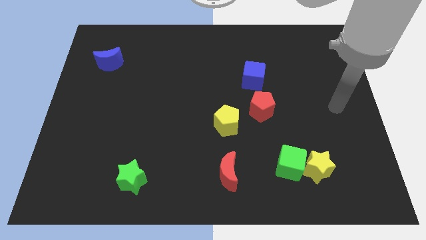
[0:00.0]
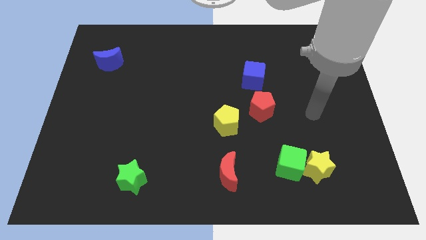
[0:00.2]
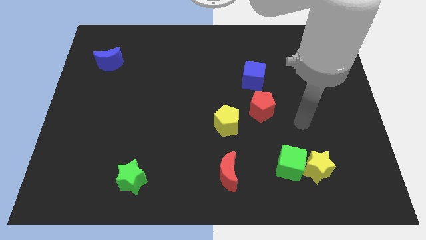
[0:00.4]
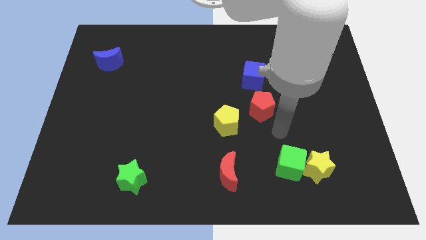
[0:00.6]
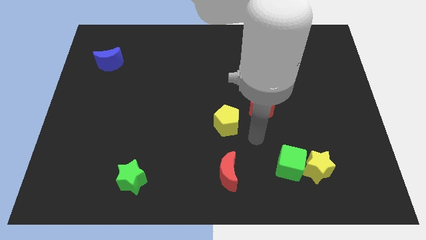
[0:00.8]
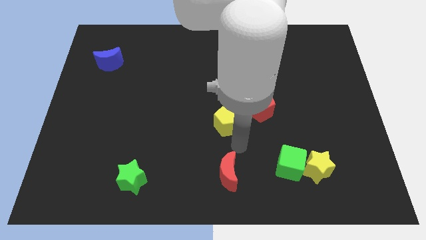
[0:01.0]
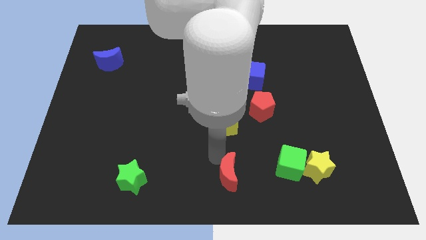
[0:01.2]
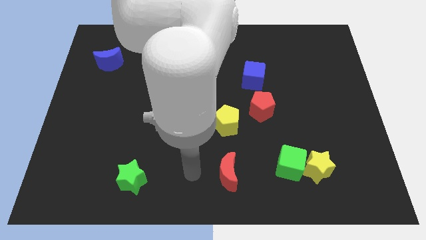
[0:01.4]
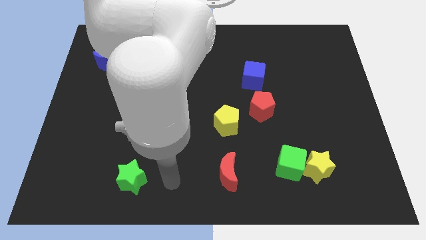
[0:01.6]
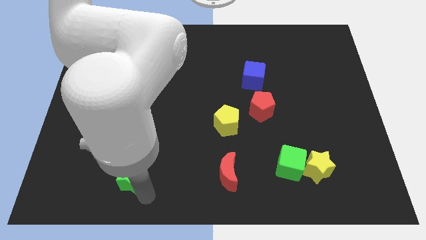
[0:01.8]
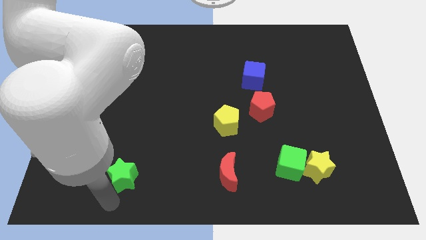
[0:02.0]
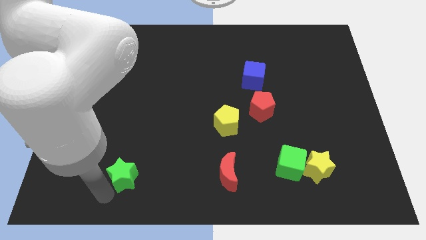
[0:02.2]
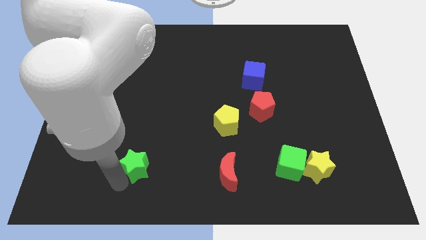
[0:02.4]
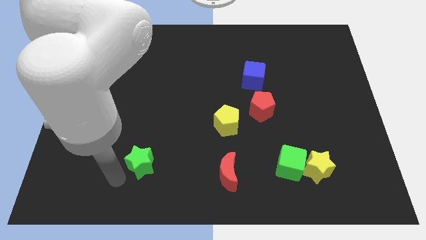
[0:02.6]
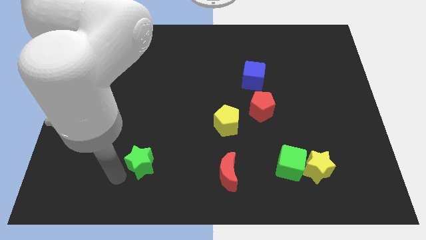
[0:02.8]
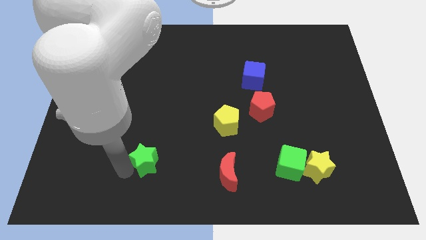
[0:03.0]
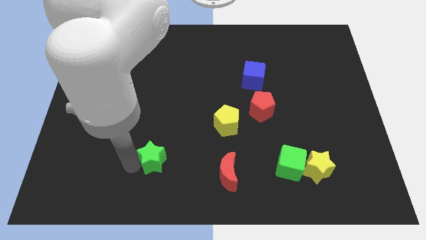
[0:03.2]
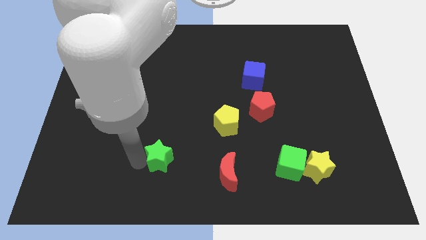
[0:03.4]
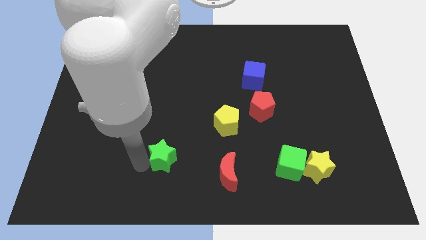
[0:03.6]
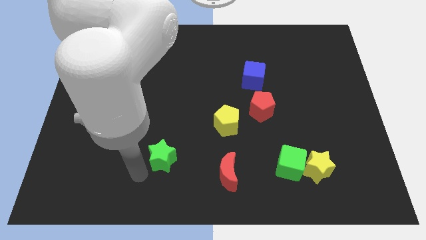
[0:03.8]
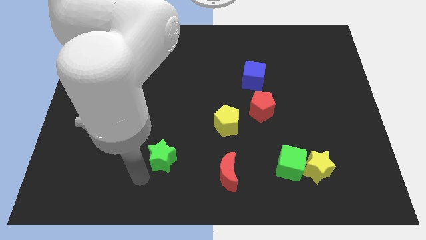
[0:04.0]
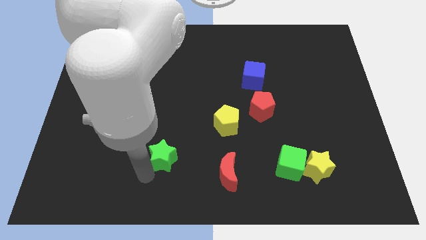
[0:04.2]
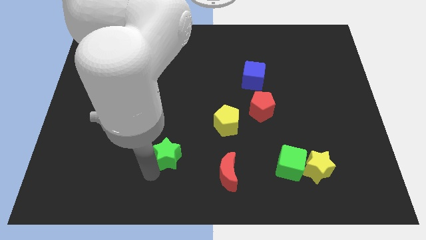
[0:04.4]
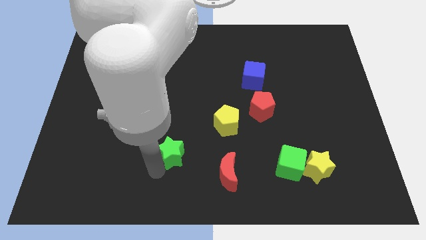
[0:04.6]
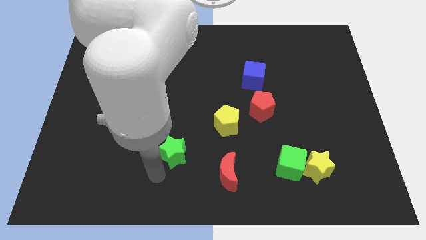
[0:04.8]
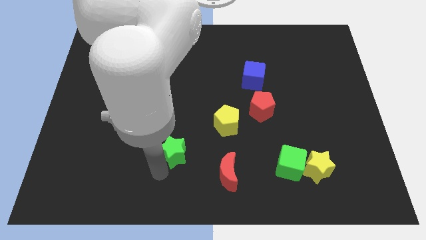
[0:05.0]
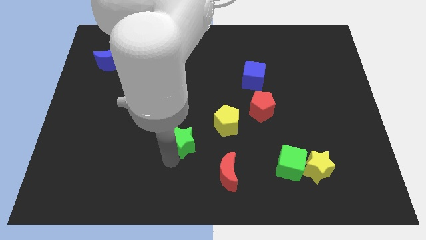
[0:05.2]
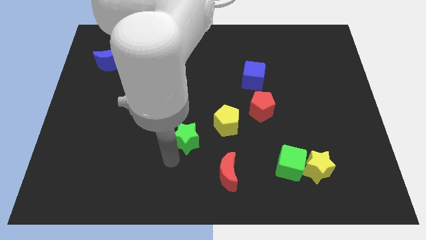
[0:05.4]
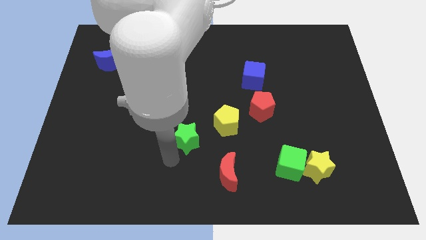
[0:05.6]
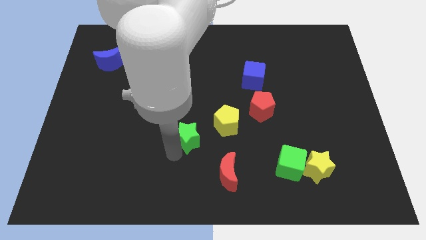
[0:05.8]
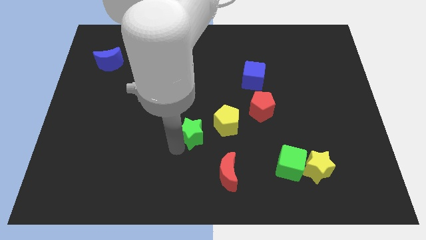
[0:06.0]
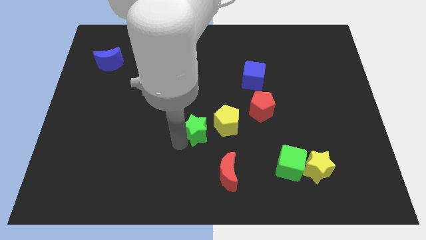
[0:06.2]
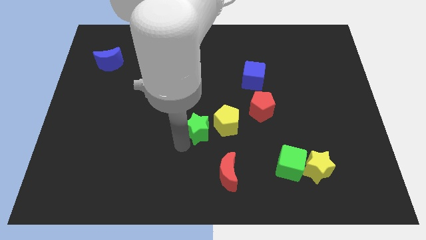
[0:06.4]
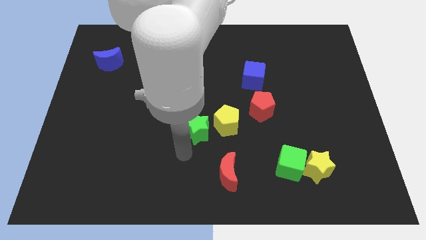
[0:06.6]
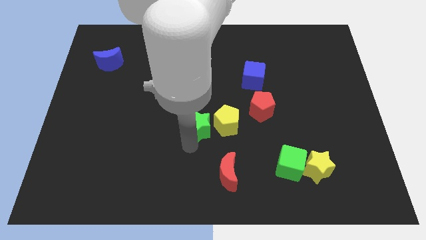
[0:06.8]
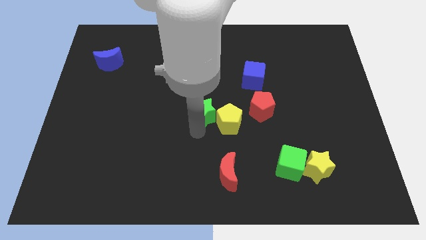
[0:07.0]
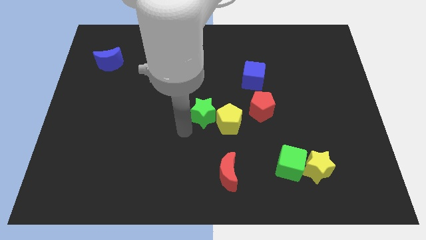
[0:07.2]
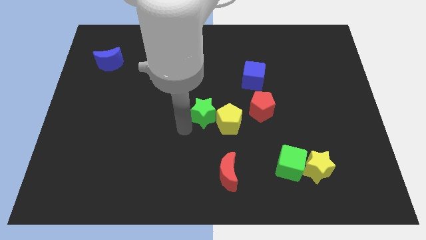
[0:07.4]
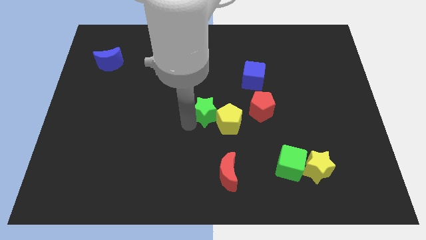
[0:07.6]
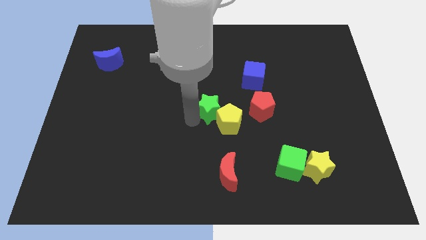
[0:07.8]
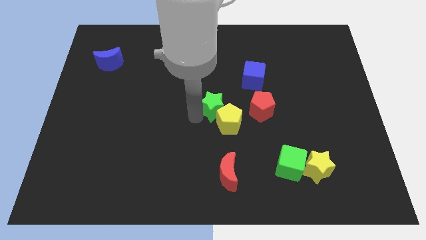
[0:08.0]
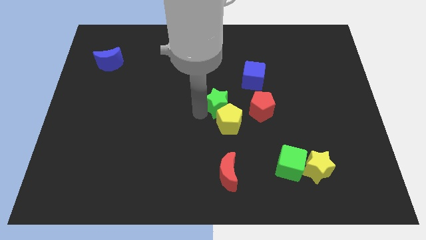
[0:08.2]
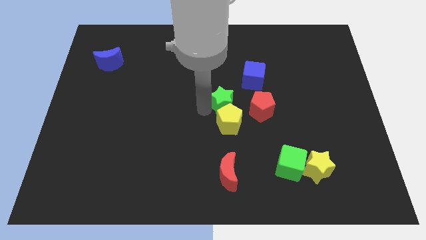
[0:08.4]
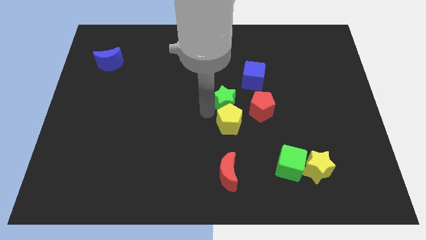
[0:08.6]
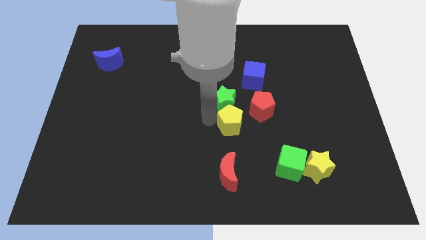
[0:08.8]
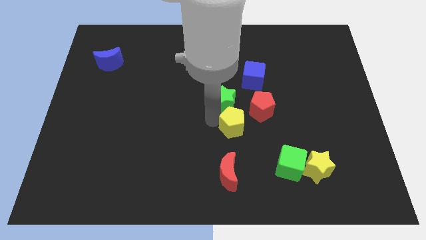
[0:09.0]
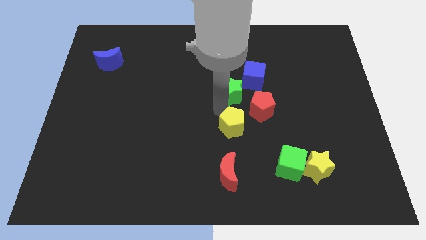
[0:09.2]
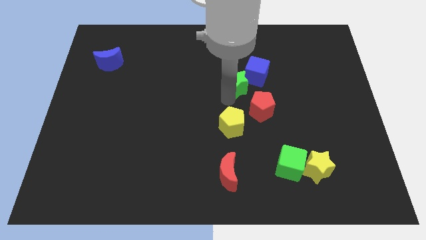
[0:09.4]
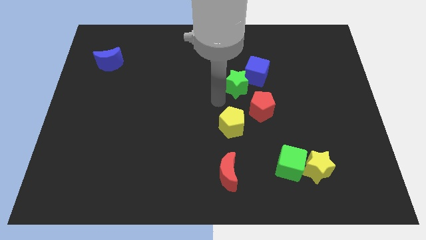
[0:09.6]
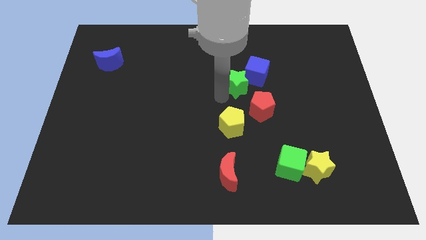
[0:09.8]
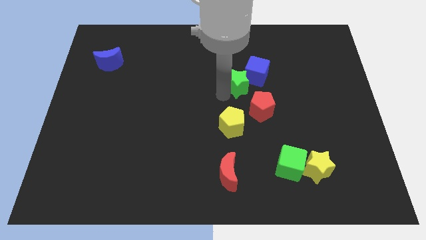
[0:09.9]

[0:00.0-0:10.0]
push the green star to the blue cube

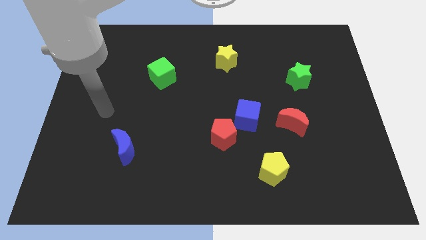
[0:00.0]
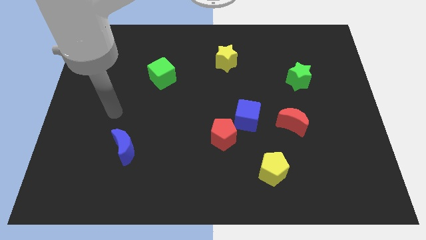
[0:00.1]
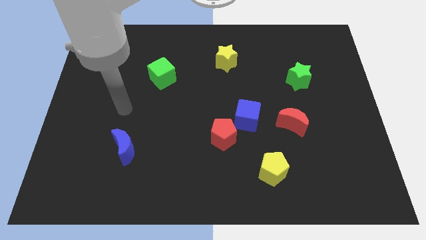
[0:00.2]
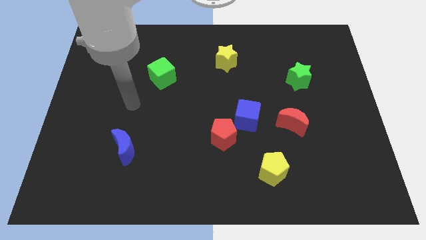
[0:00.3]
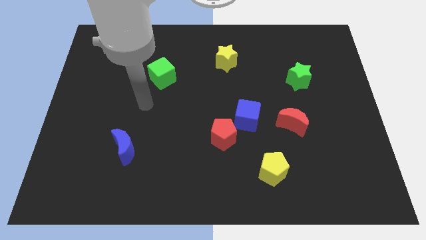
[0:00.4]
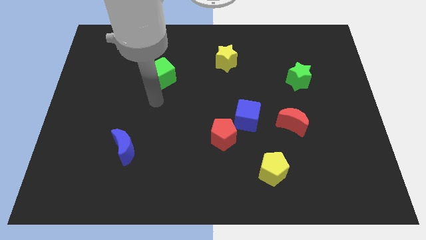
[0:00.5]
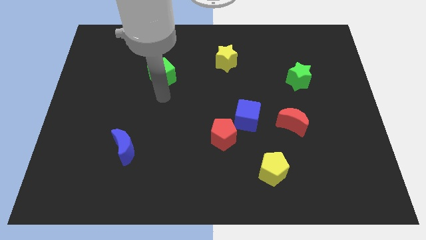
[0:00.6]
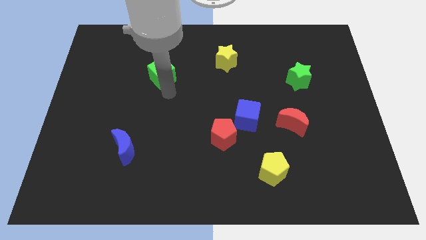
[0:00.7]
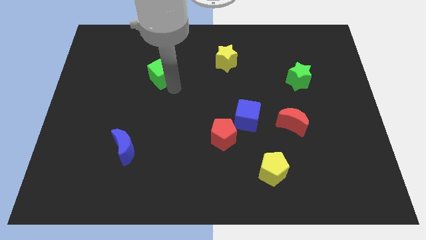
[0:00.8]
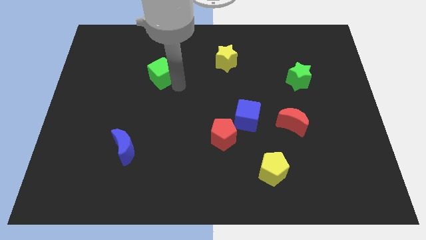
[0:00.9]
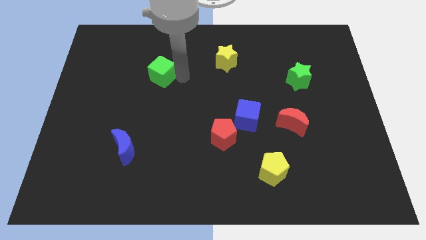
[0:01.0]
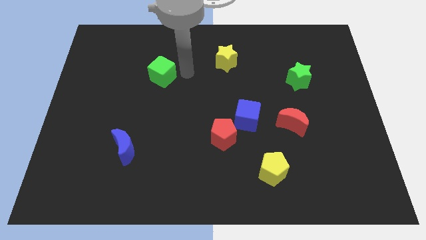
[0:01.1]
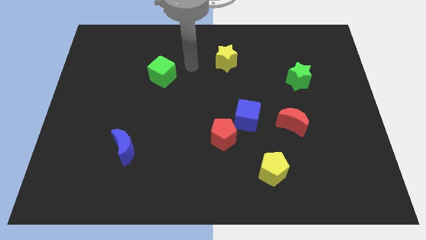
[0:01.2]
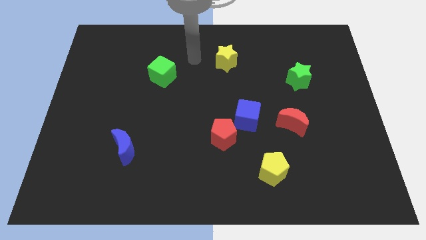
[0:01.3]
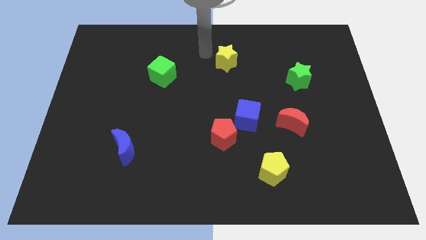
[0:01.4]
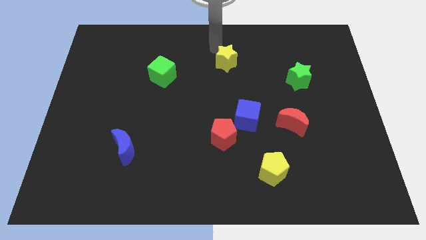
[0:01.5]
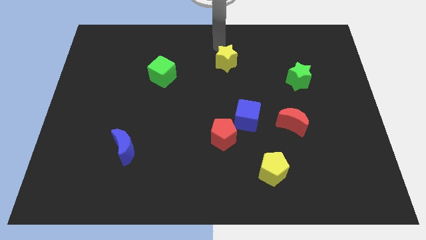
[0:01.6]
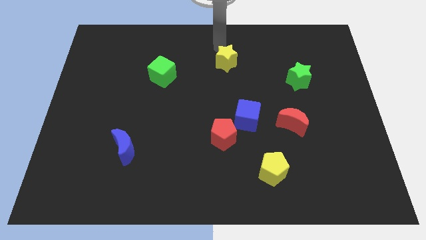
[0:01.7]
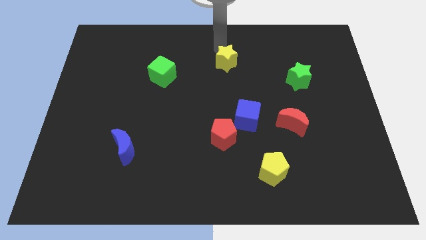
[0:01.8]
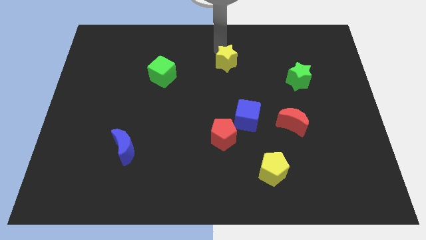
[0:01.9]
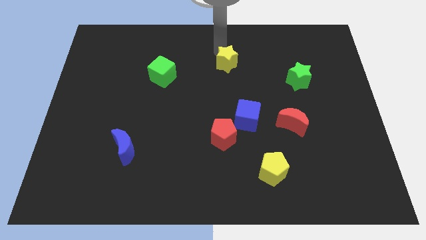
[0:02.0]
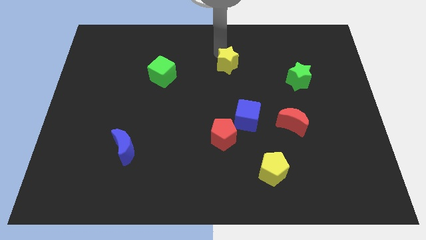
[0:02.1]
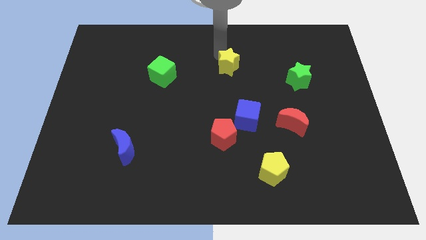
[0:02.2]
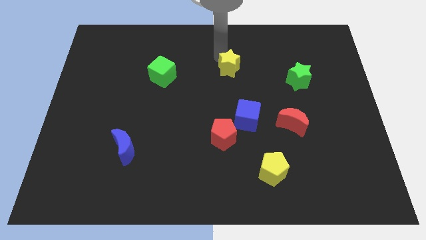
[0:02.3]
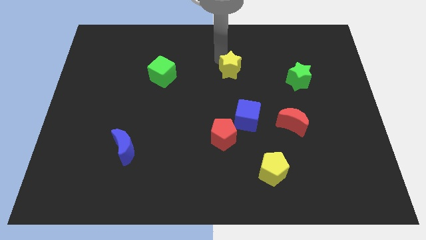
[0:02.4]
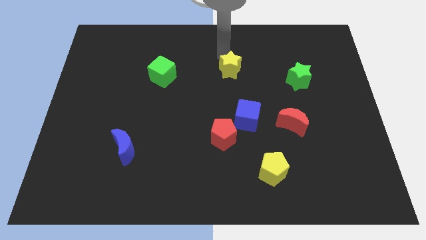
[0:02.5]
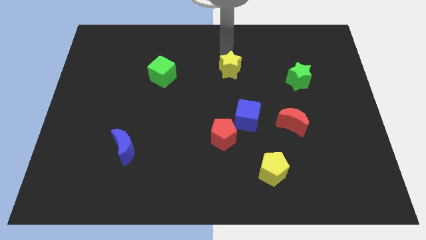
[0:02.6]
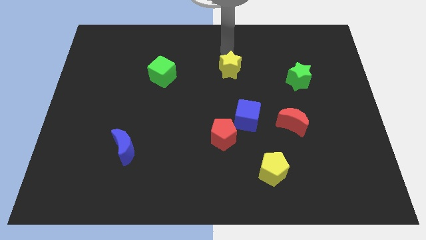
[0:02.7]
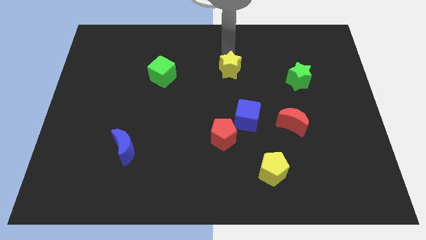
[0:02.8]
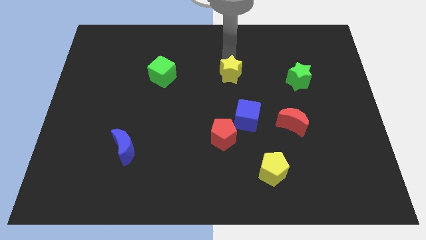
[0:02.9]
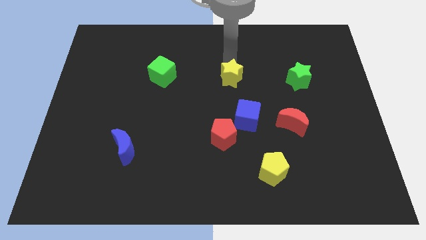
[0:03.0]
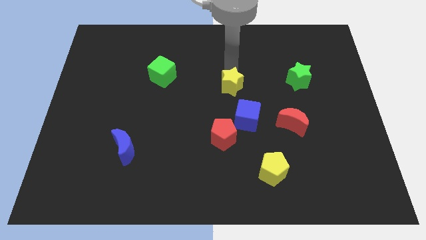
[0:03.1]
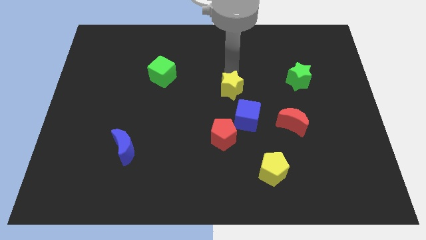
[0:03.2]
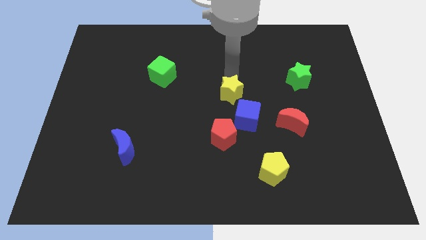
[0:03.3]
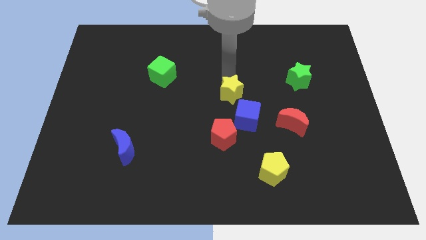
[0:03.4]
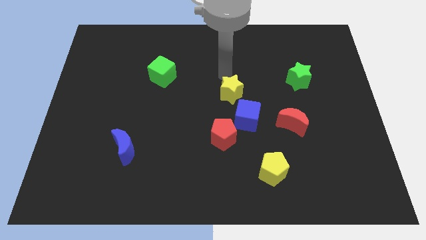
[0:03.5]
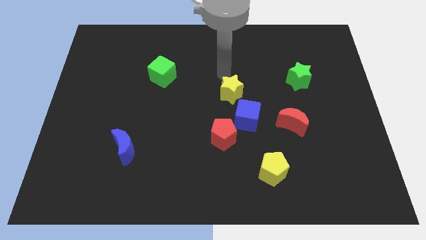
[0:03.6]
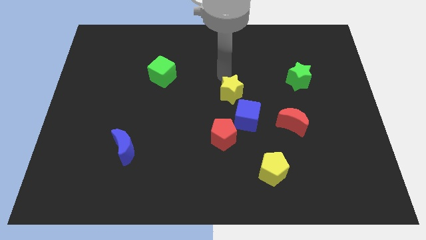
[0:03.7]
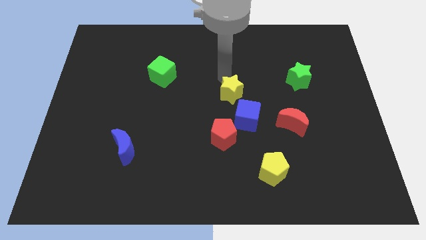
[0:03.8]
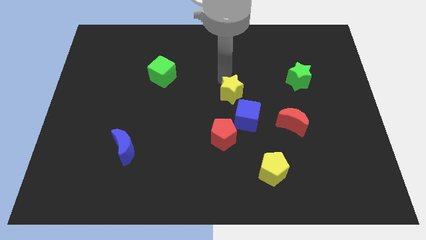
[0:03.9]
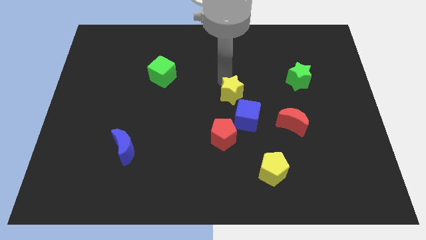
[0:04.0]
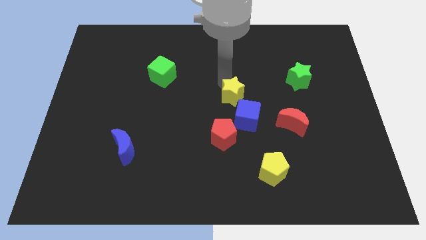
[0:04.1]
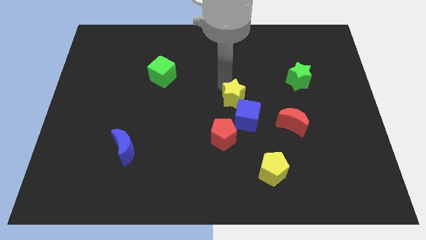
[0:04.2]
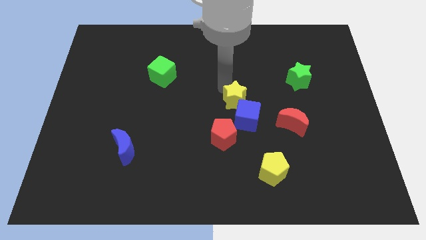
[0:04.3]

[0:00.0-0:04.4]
slide the yellow star close to the blue cube
